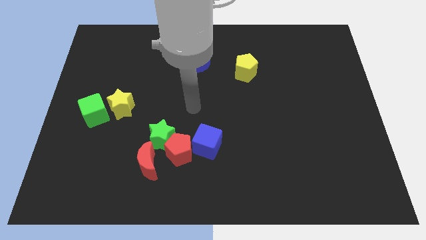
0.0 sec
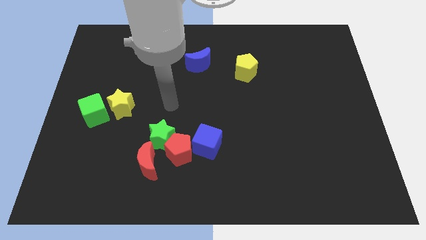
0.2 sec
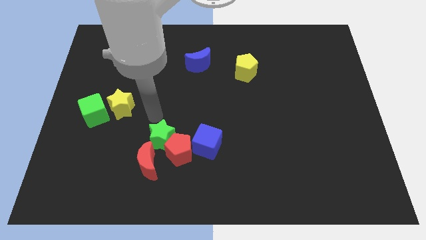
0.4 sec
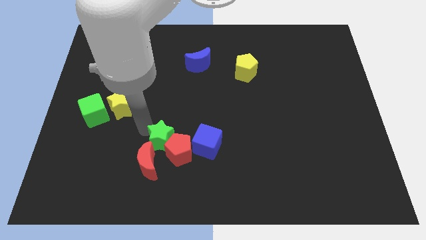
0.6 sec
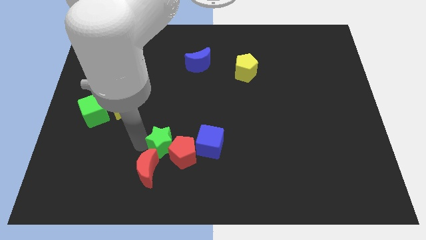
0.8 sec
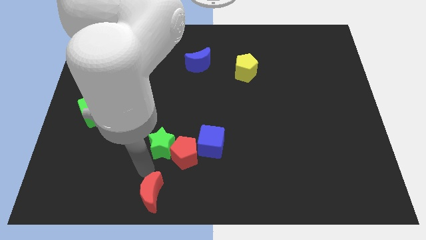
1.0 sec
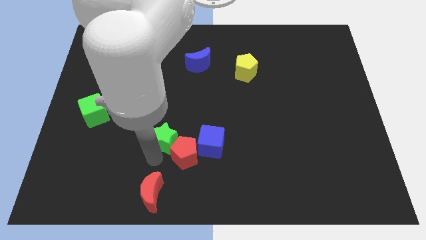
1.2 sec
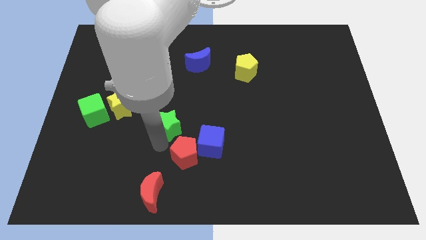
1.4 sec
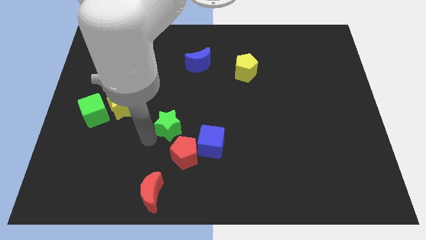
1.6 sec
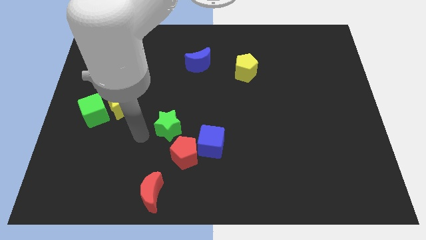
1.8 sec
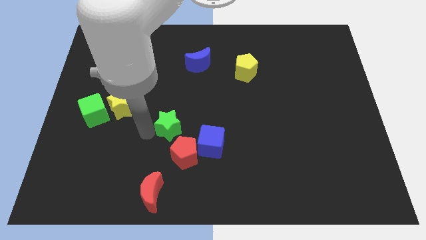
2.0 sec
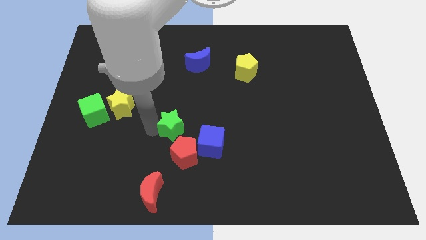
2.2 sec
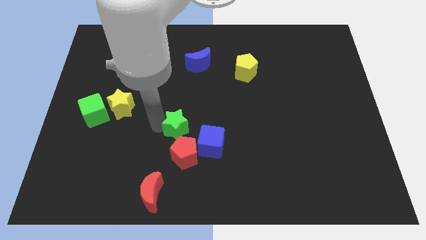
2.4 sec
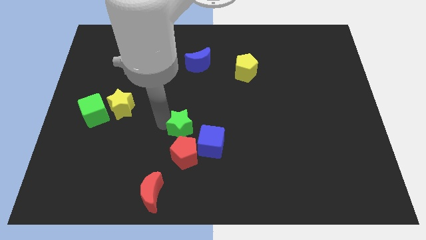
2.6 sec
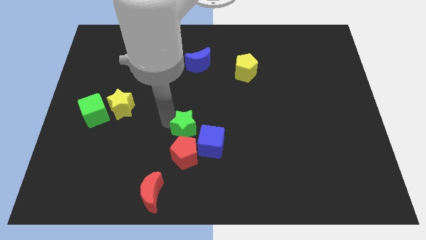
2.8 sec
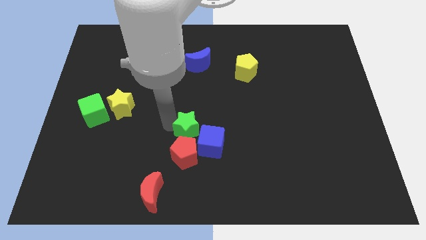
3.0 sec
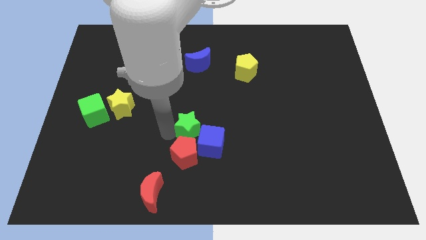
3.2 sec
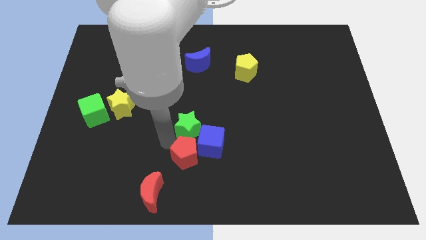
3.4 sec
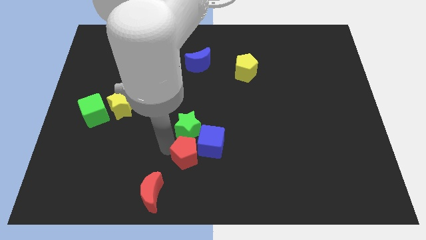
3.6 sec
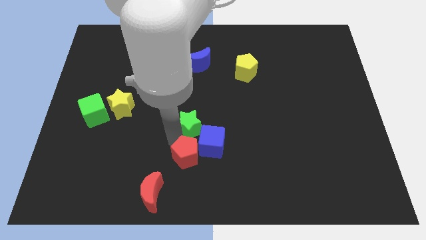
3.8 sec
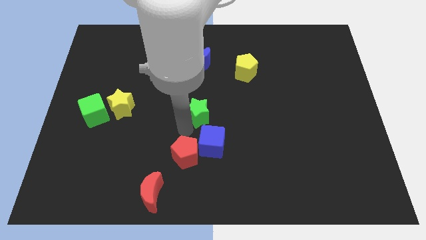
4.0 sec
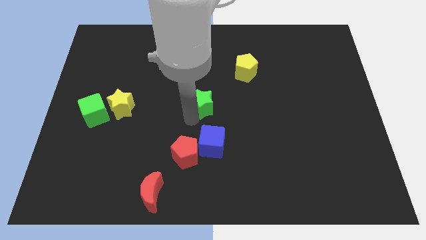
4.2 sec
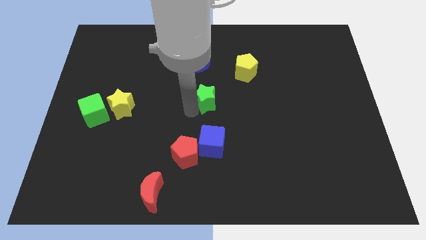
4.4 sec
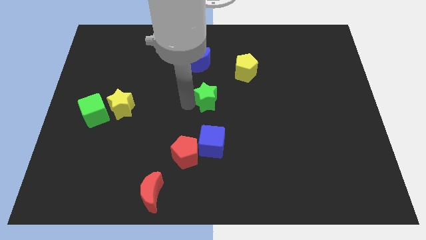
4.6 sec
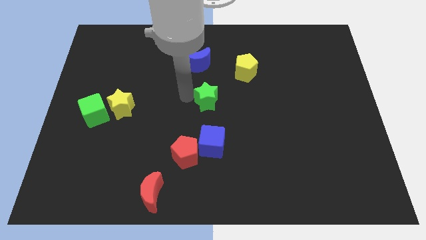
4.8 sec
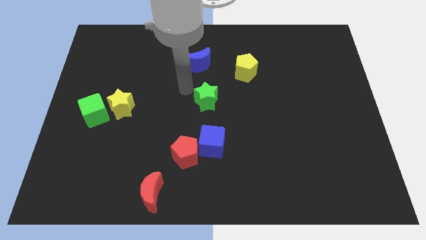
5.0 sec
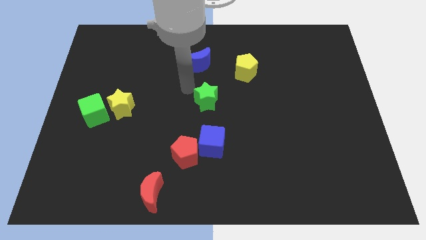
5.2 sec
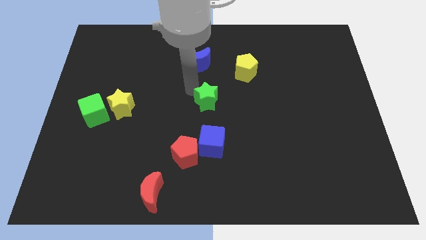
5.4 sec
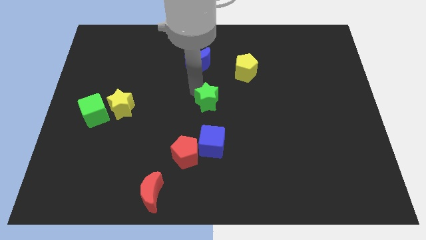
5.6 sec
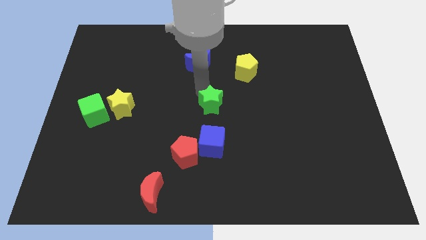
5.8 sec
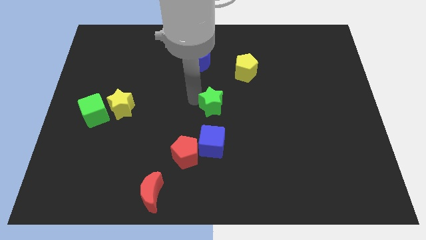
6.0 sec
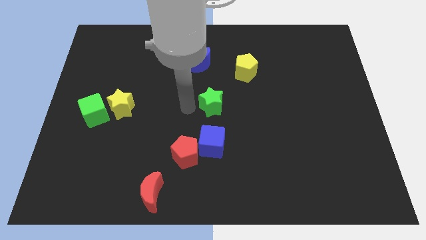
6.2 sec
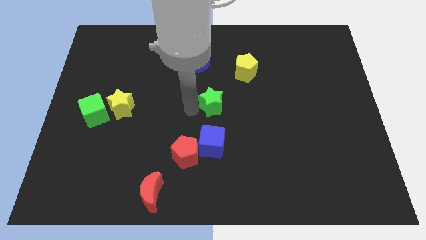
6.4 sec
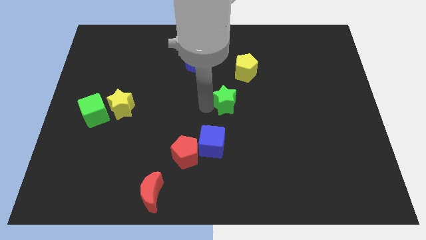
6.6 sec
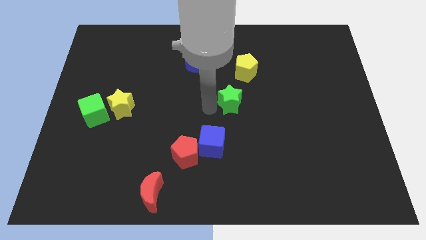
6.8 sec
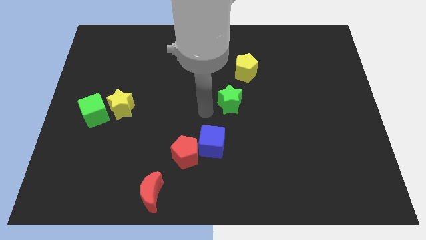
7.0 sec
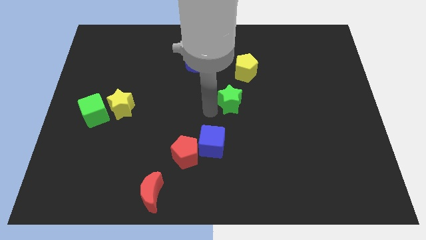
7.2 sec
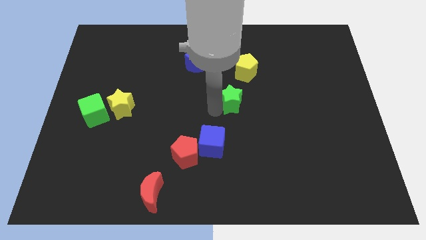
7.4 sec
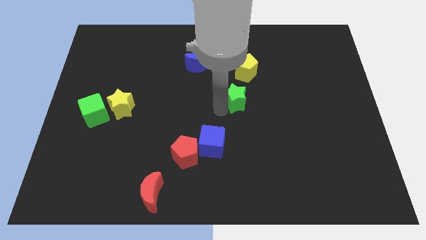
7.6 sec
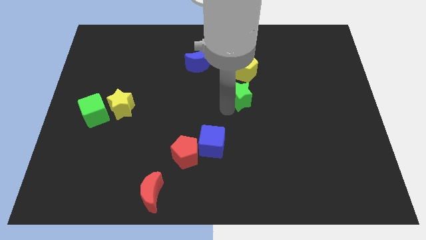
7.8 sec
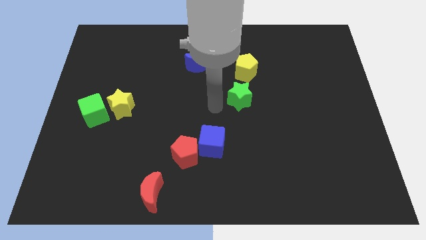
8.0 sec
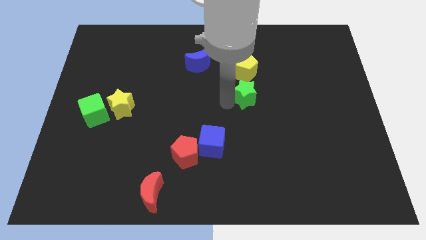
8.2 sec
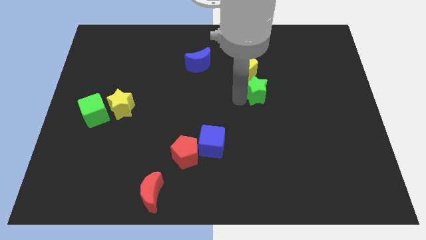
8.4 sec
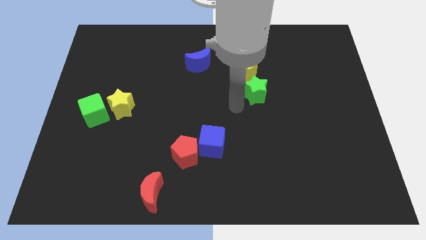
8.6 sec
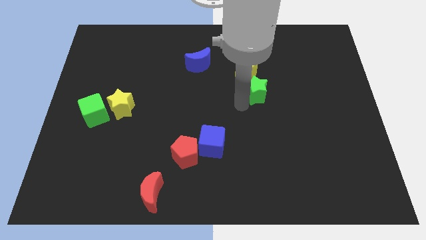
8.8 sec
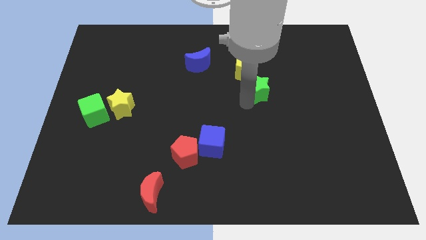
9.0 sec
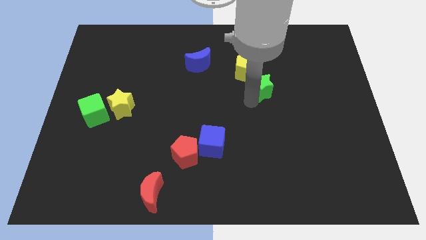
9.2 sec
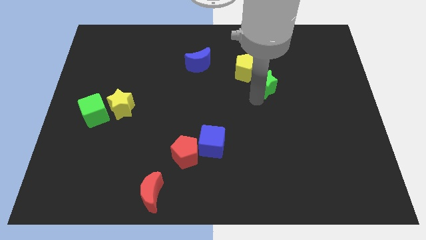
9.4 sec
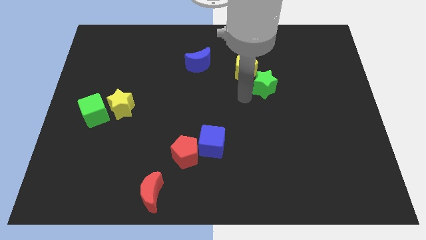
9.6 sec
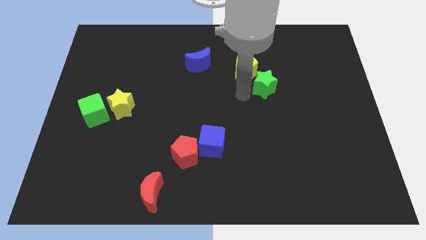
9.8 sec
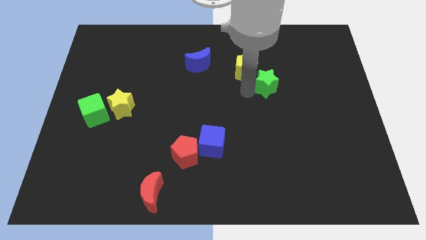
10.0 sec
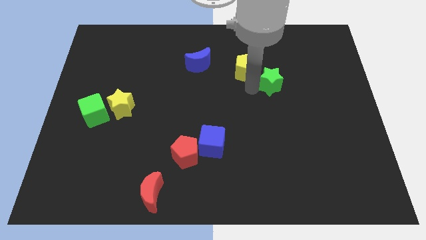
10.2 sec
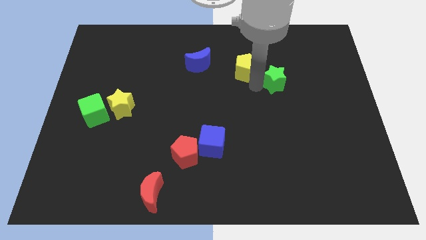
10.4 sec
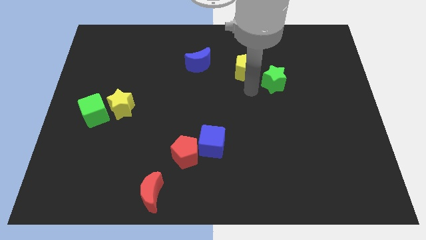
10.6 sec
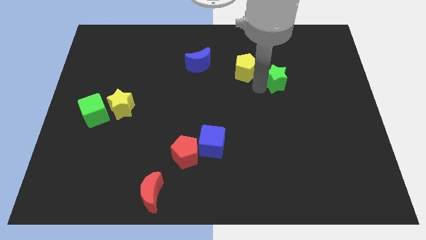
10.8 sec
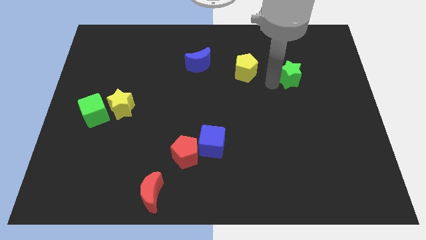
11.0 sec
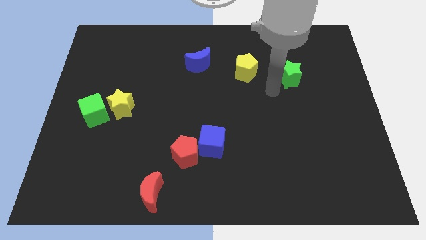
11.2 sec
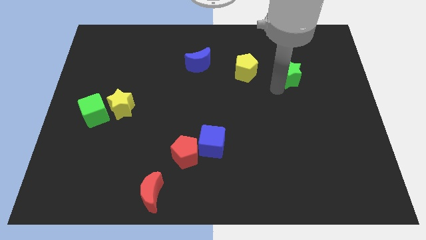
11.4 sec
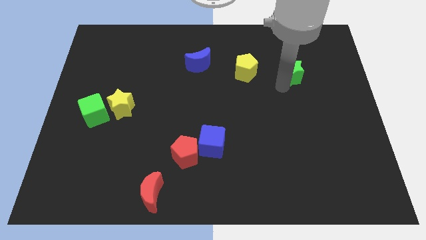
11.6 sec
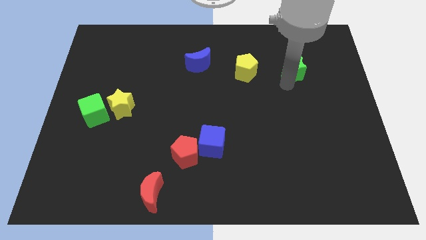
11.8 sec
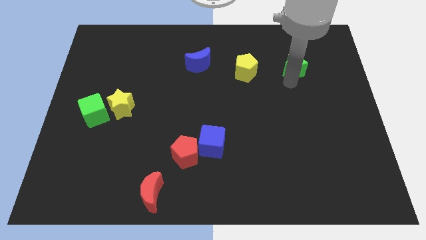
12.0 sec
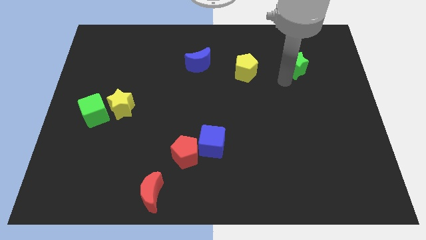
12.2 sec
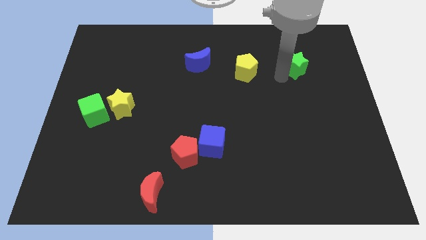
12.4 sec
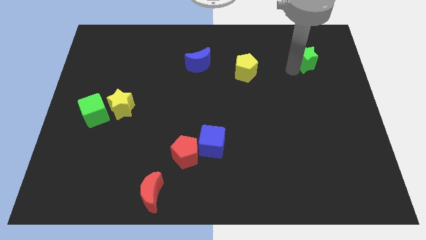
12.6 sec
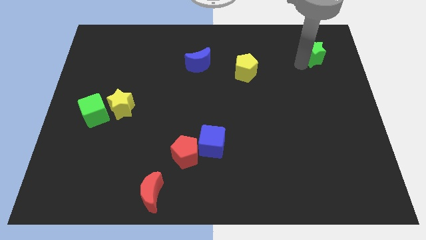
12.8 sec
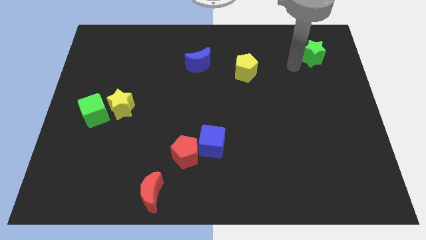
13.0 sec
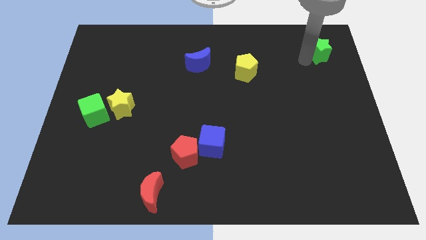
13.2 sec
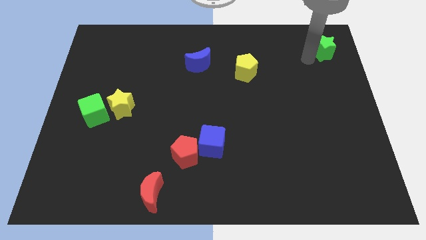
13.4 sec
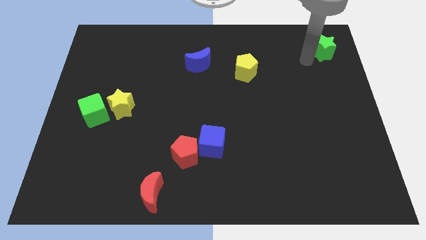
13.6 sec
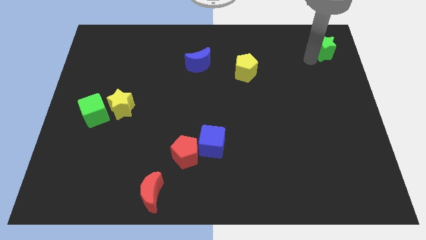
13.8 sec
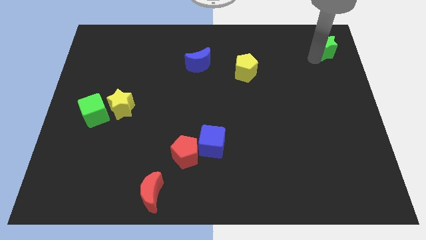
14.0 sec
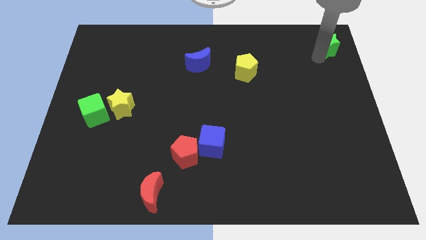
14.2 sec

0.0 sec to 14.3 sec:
move the green star to the top right of the board
